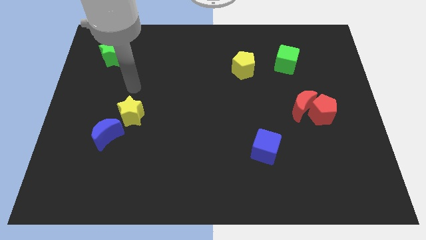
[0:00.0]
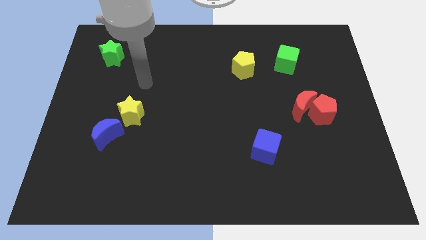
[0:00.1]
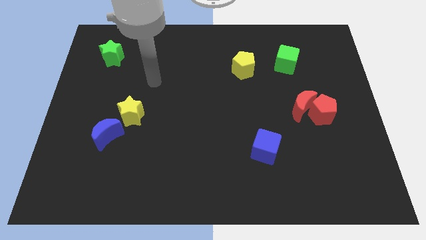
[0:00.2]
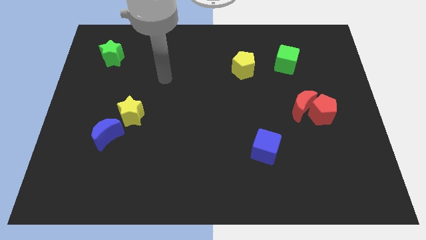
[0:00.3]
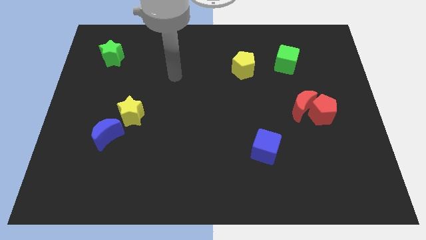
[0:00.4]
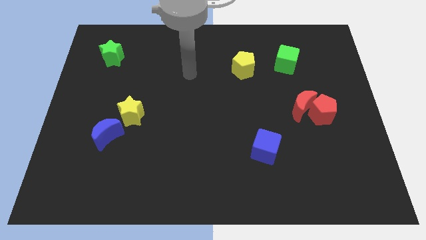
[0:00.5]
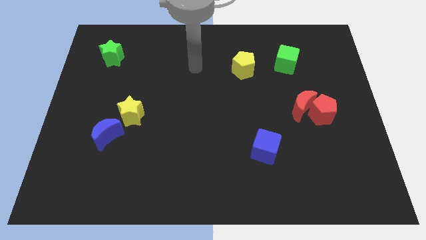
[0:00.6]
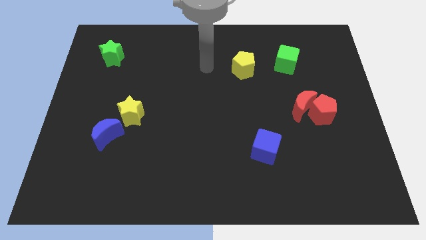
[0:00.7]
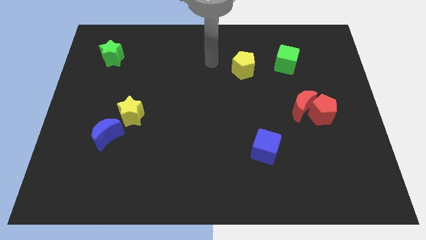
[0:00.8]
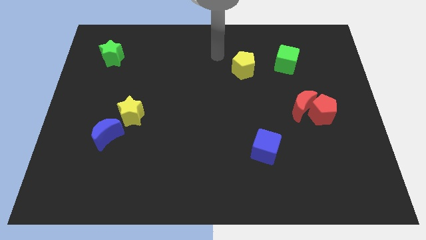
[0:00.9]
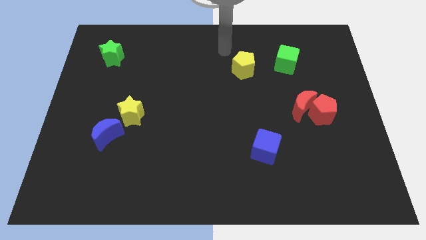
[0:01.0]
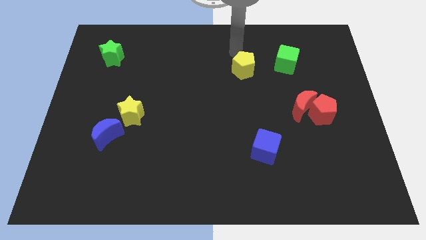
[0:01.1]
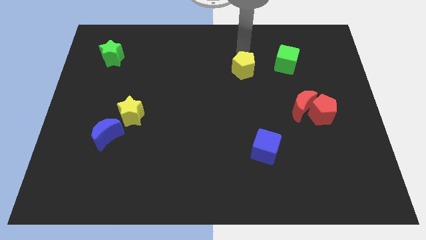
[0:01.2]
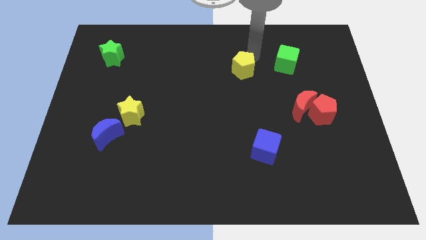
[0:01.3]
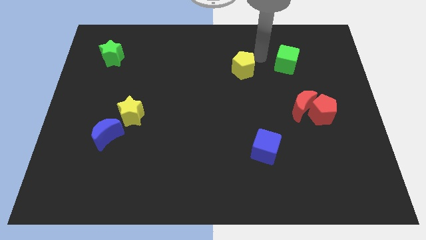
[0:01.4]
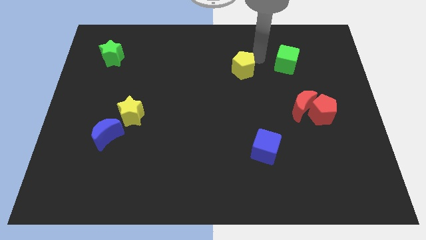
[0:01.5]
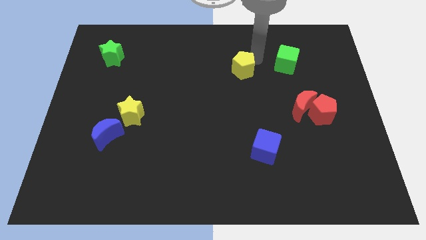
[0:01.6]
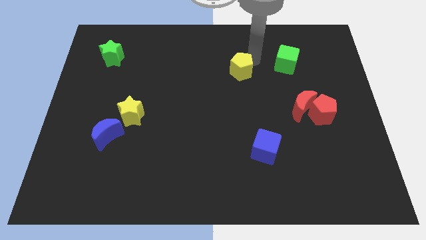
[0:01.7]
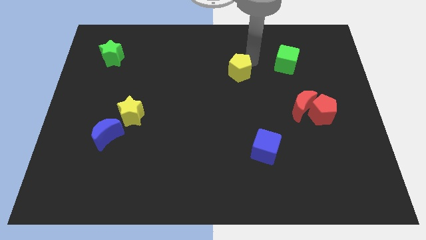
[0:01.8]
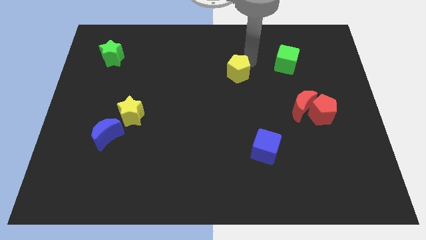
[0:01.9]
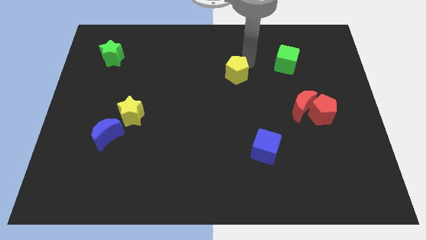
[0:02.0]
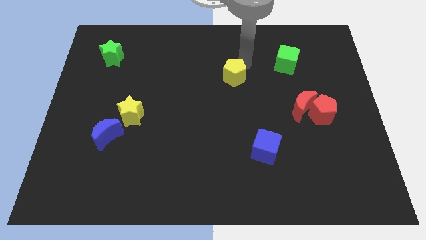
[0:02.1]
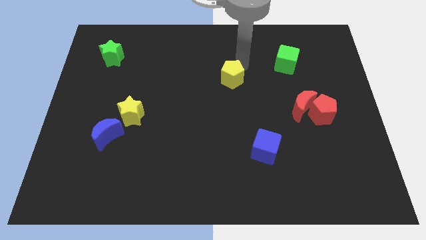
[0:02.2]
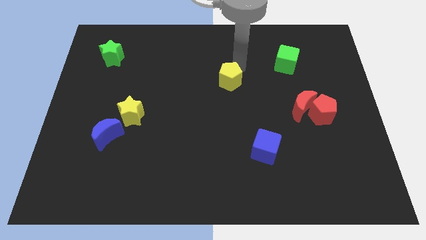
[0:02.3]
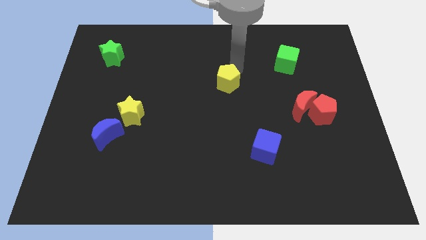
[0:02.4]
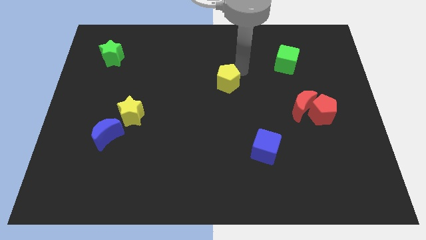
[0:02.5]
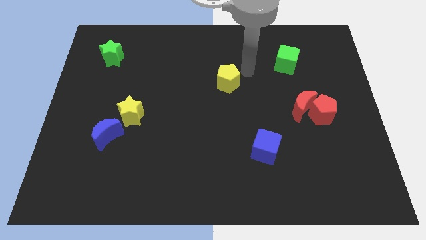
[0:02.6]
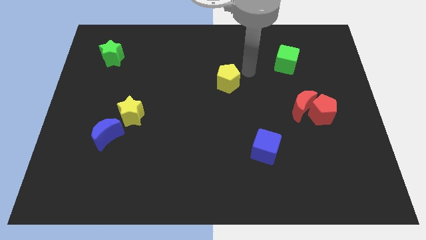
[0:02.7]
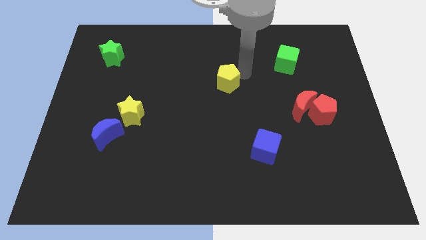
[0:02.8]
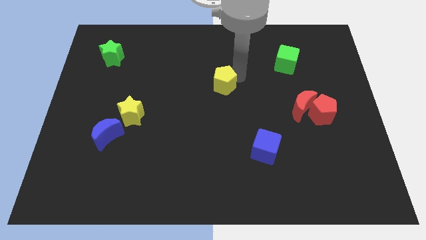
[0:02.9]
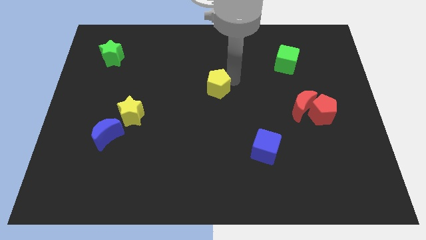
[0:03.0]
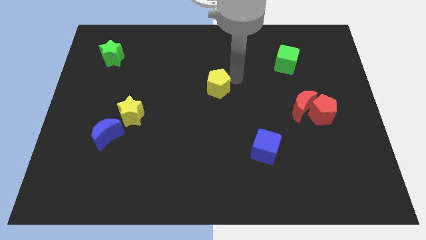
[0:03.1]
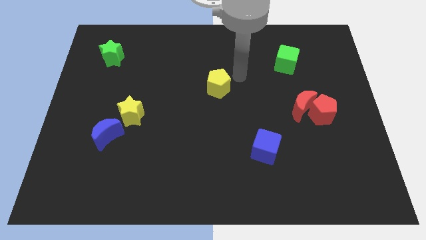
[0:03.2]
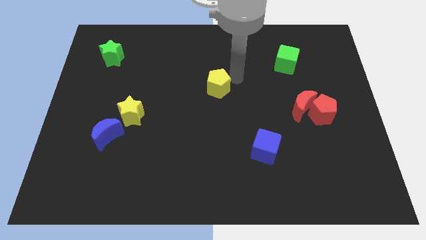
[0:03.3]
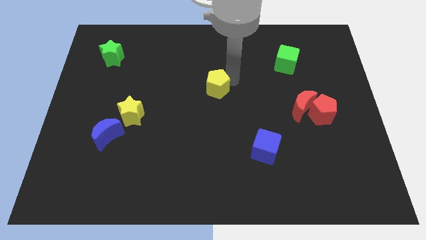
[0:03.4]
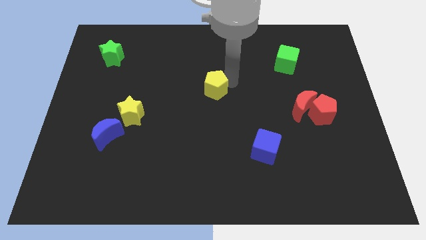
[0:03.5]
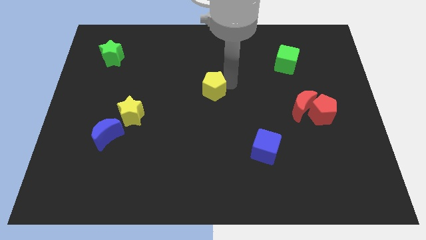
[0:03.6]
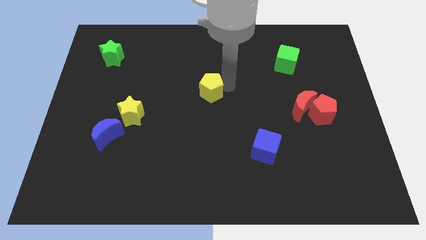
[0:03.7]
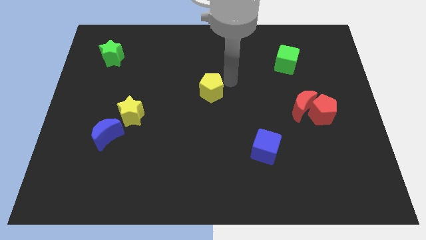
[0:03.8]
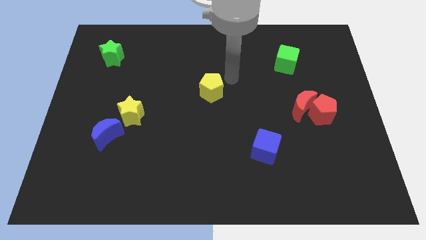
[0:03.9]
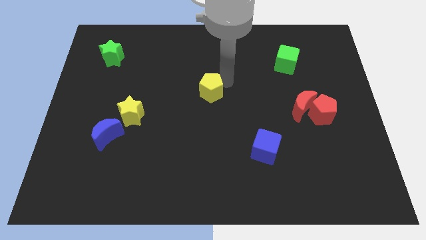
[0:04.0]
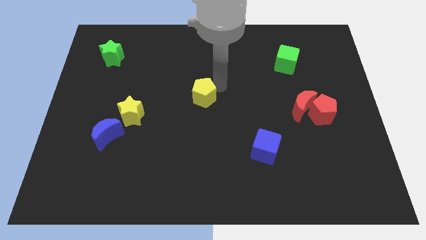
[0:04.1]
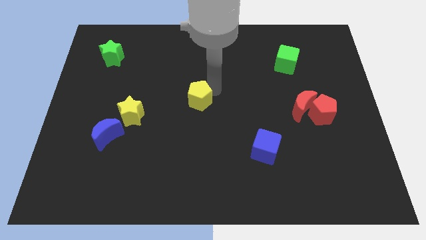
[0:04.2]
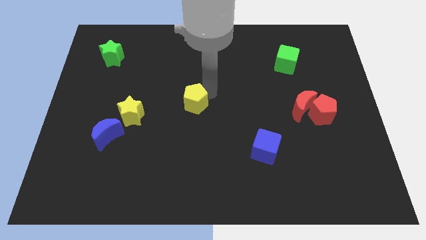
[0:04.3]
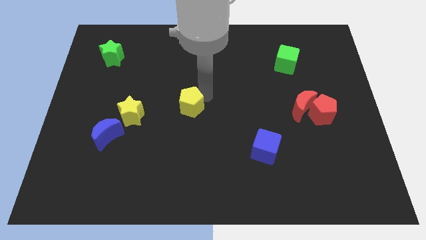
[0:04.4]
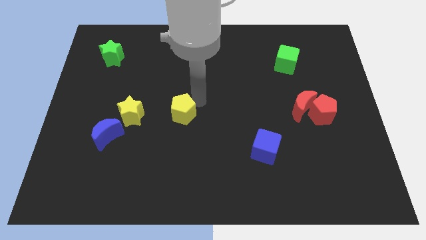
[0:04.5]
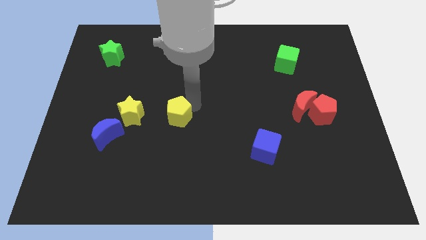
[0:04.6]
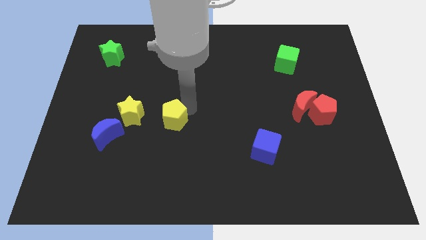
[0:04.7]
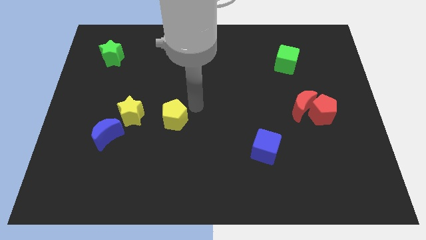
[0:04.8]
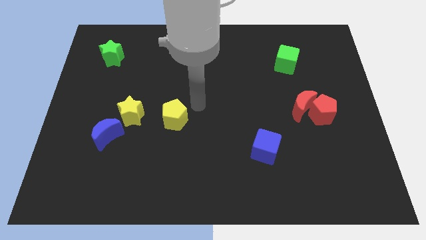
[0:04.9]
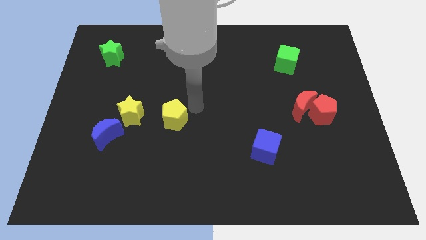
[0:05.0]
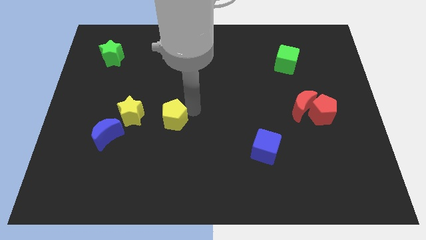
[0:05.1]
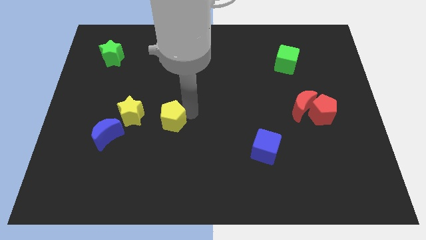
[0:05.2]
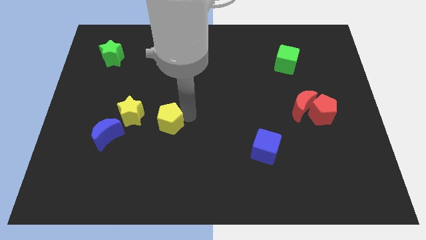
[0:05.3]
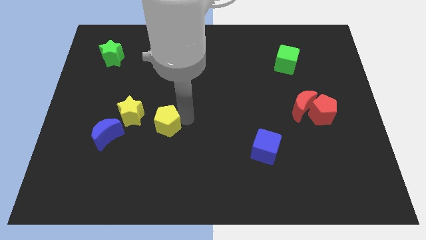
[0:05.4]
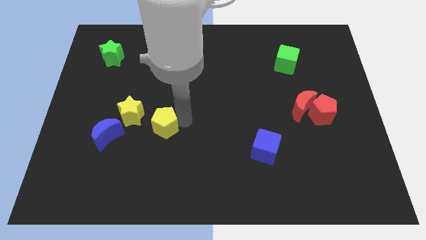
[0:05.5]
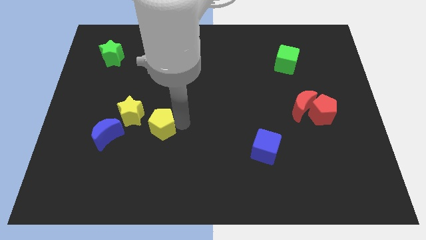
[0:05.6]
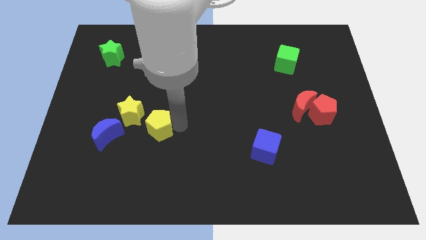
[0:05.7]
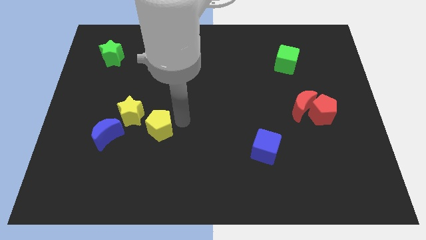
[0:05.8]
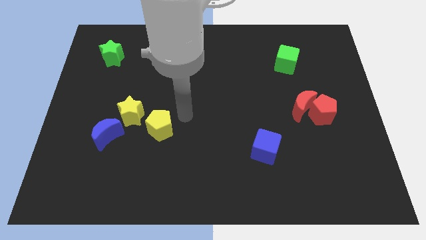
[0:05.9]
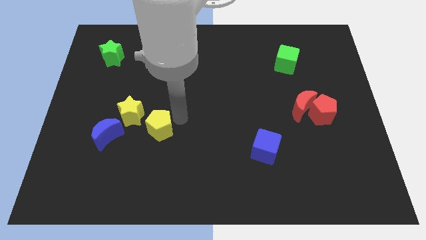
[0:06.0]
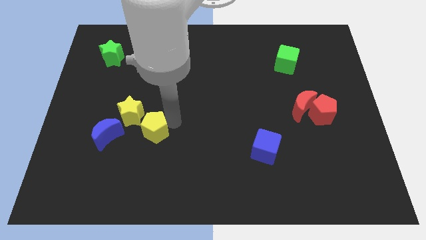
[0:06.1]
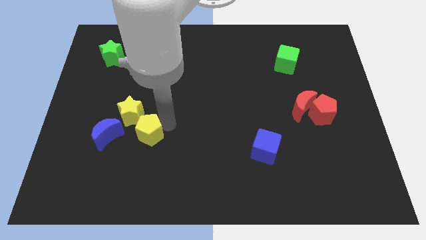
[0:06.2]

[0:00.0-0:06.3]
push the yellow pentagon to the bottom side of the yellow star

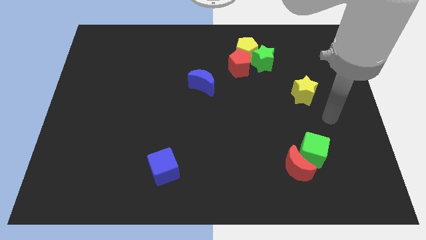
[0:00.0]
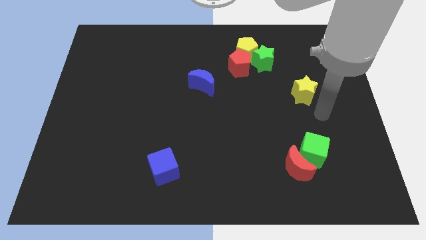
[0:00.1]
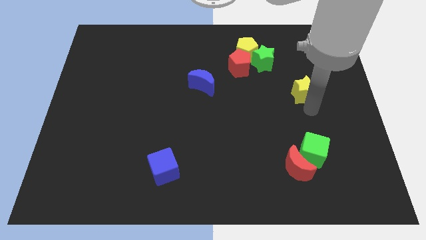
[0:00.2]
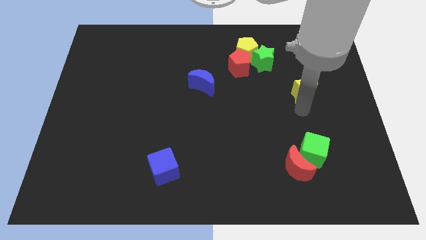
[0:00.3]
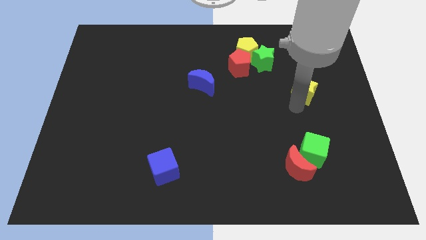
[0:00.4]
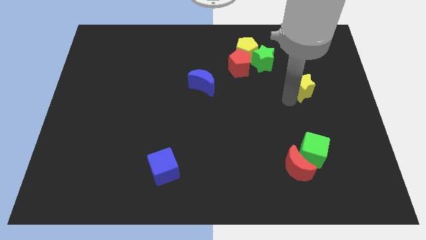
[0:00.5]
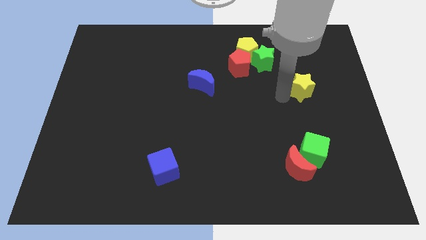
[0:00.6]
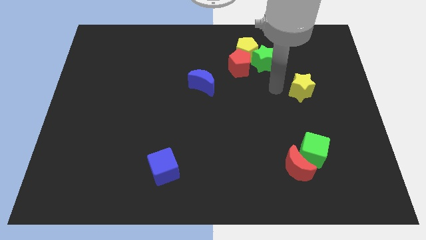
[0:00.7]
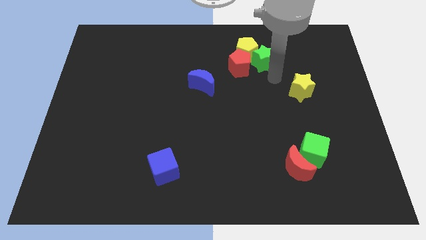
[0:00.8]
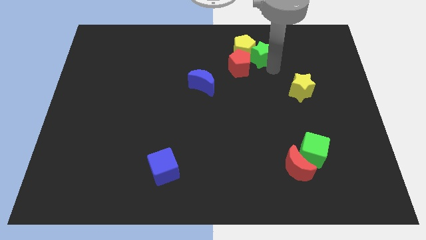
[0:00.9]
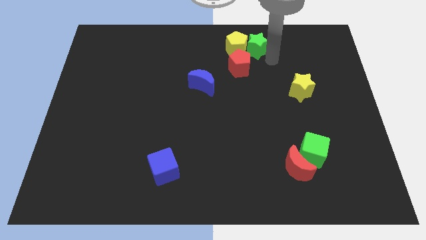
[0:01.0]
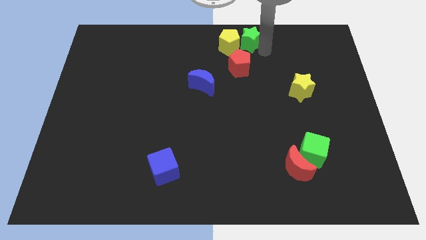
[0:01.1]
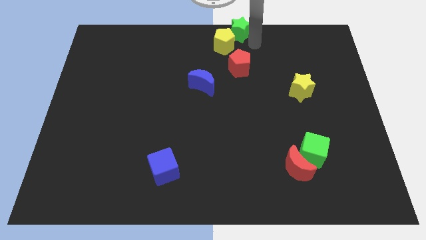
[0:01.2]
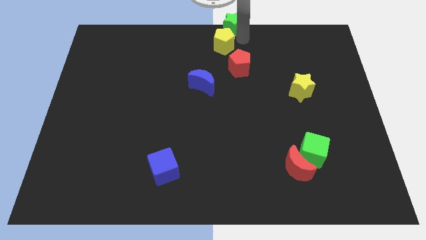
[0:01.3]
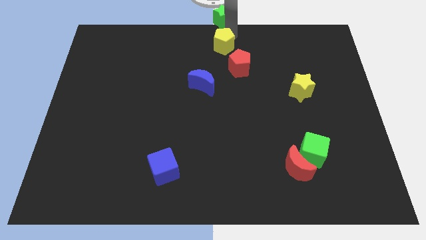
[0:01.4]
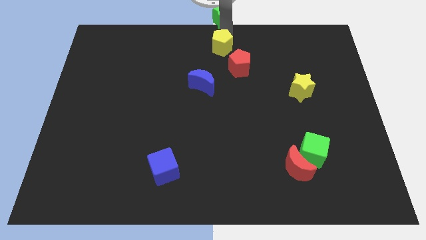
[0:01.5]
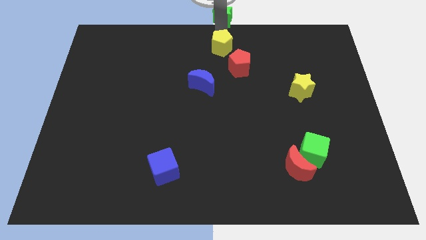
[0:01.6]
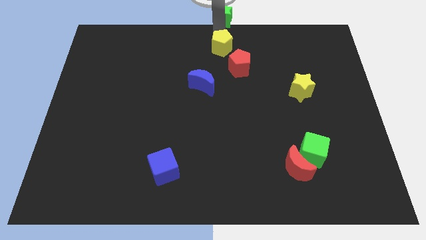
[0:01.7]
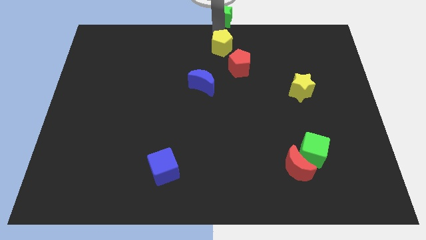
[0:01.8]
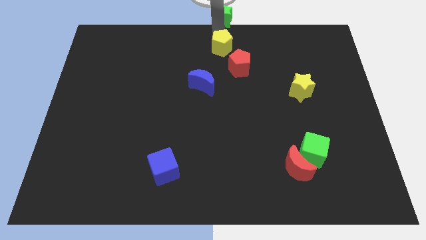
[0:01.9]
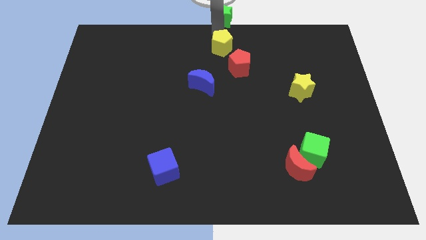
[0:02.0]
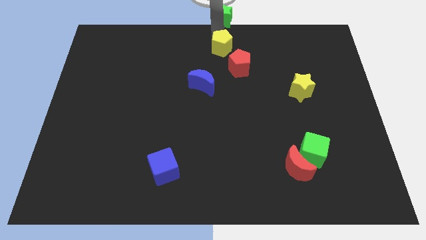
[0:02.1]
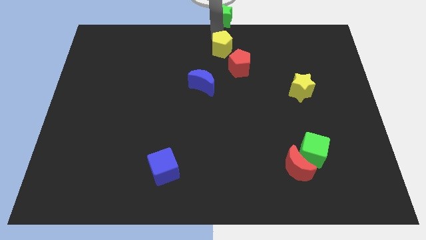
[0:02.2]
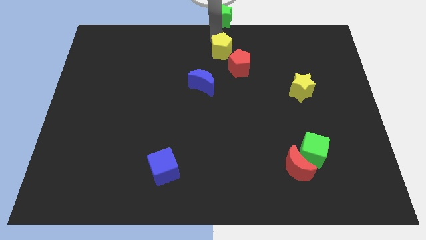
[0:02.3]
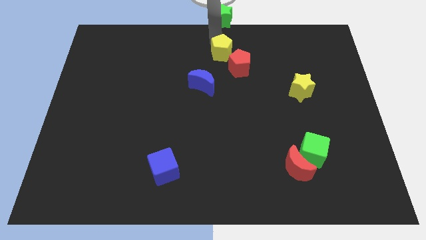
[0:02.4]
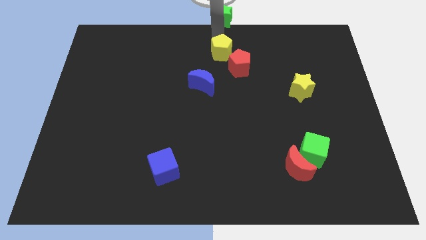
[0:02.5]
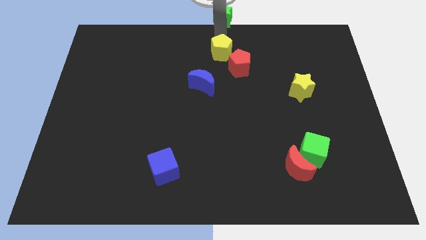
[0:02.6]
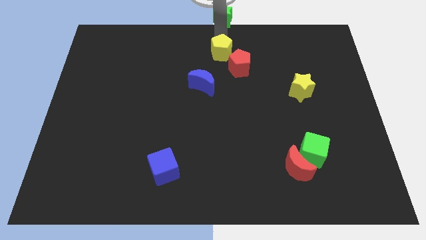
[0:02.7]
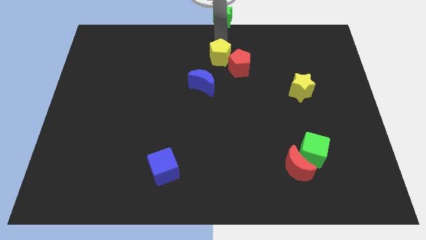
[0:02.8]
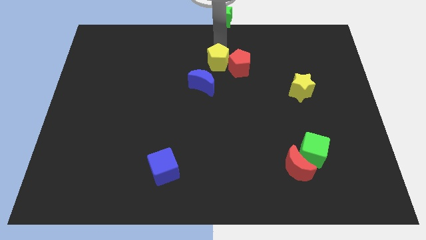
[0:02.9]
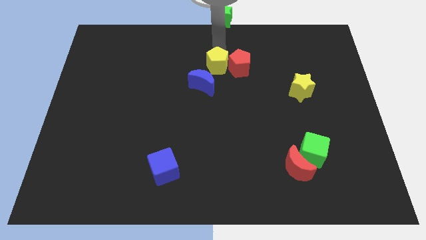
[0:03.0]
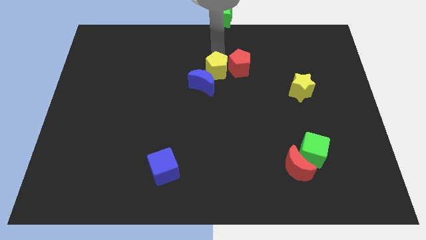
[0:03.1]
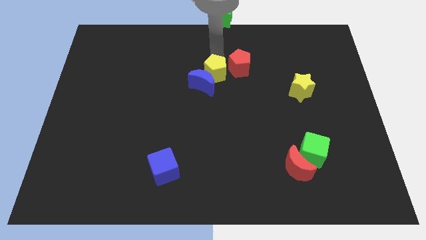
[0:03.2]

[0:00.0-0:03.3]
put the yellow pentagon right of the blue moon
